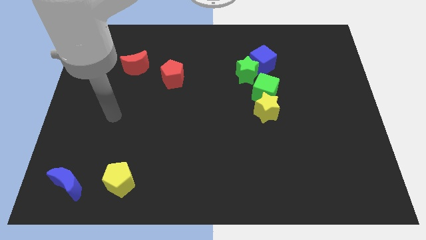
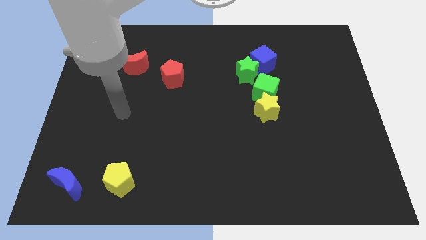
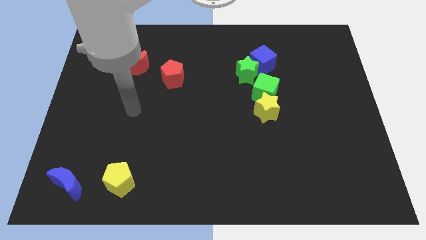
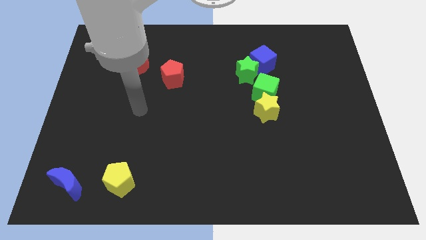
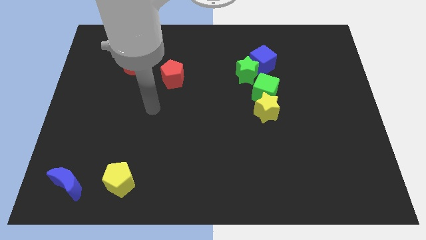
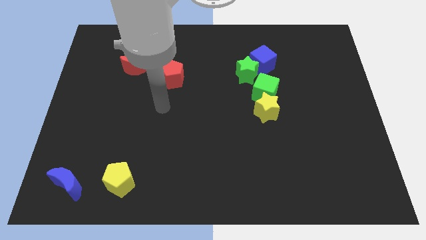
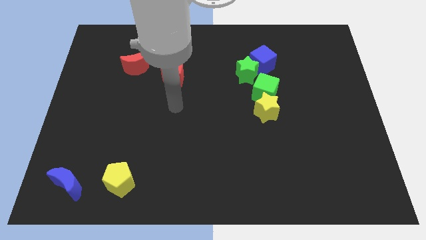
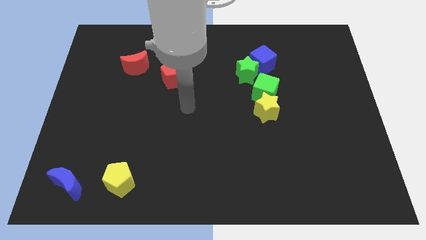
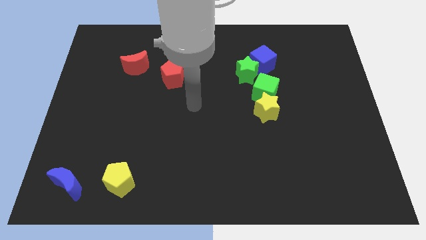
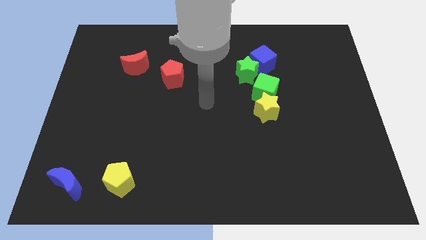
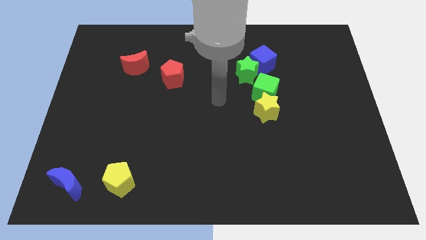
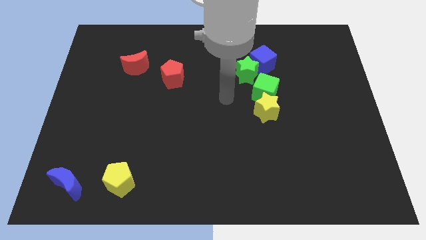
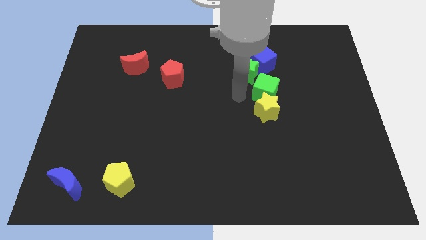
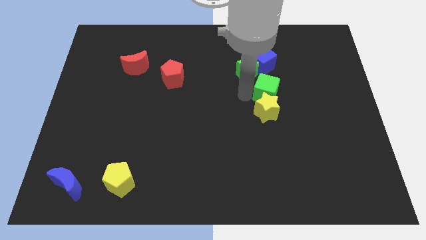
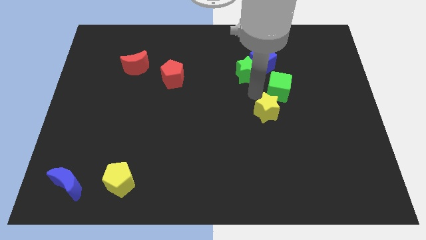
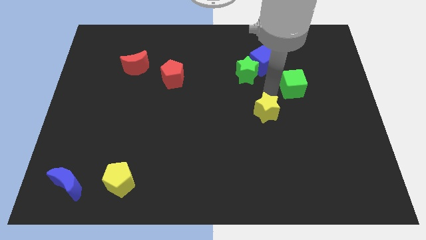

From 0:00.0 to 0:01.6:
separate the yellow star from the green cube

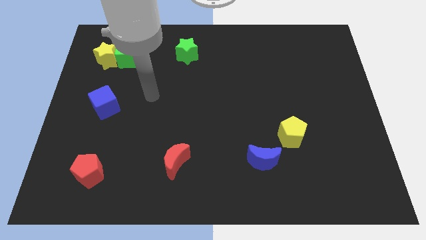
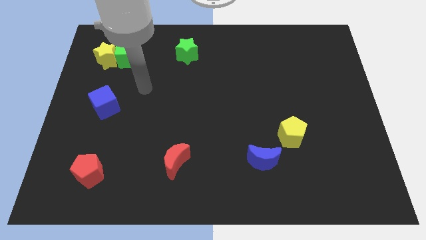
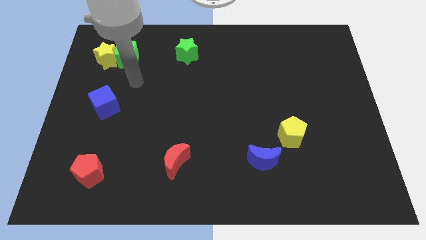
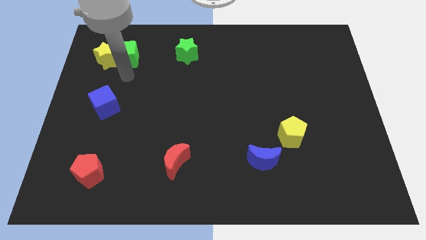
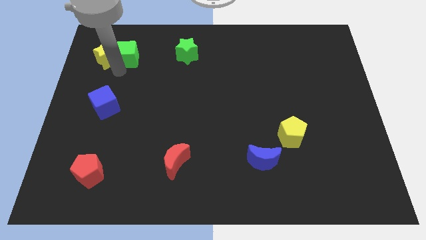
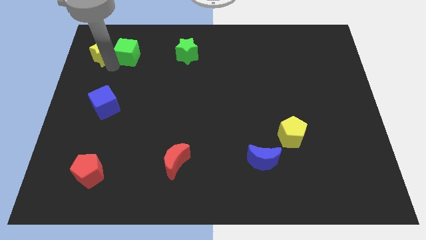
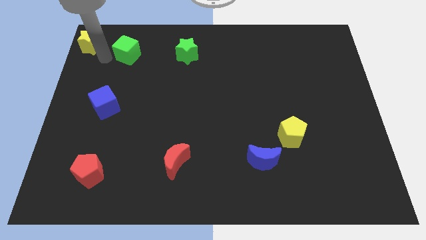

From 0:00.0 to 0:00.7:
pull the green cube apart from the yellow star

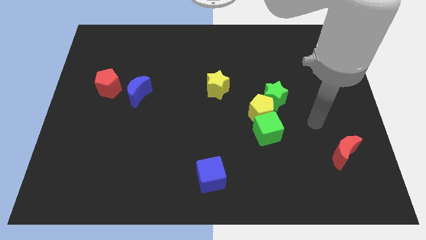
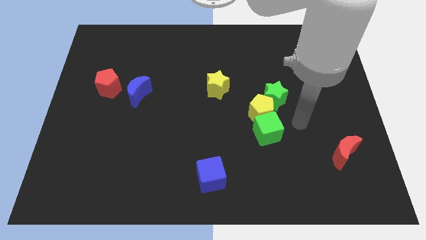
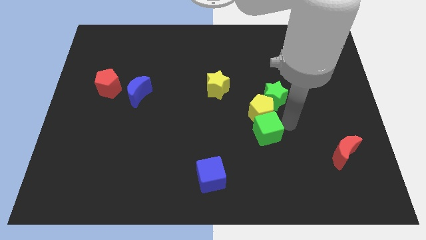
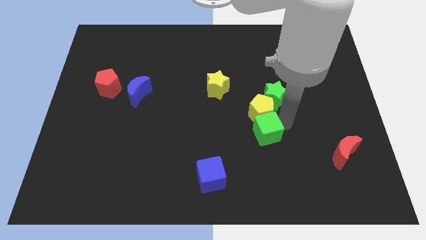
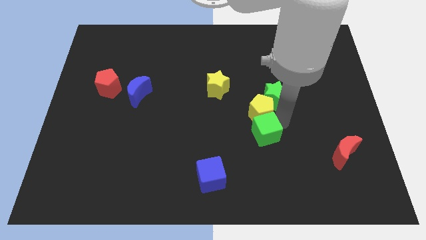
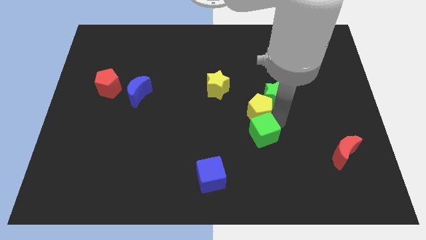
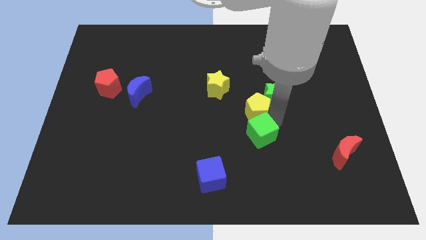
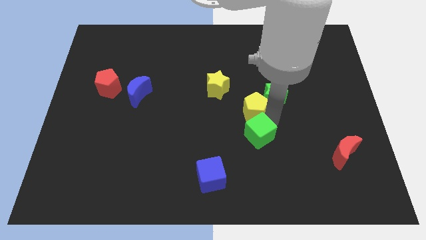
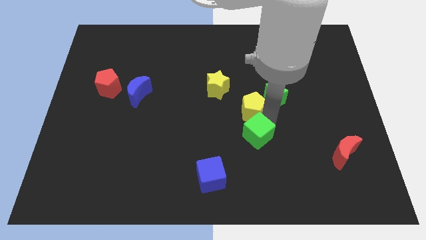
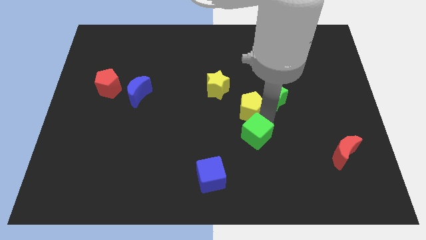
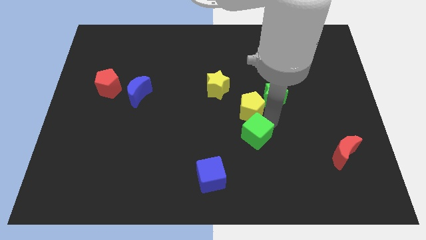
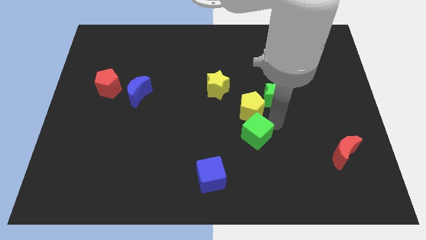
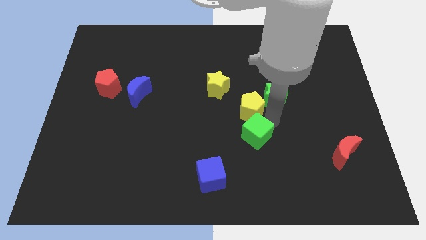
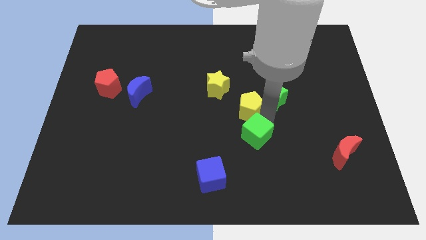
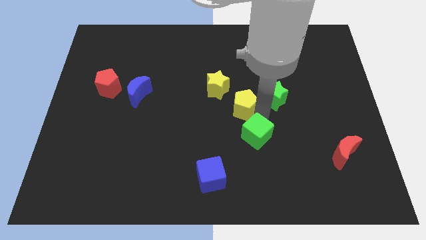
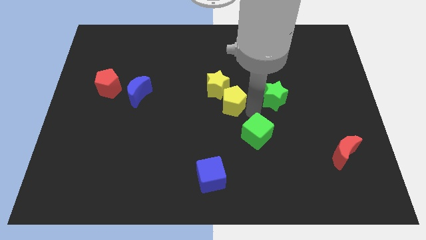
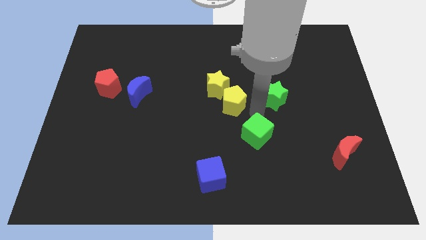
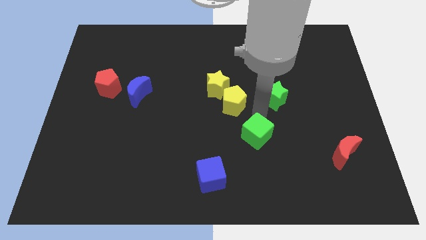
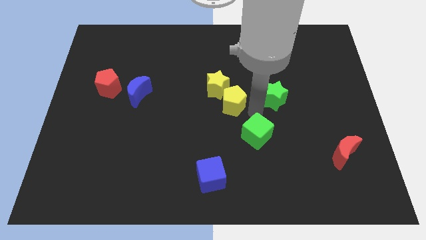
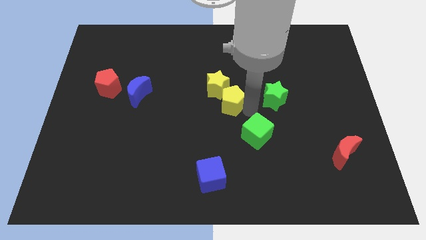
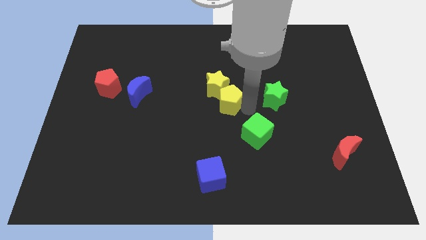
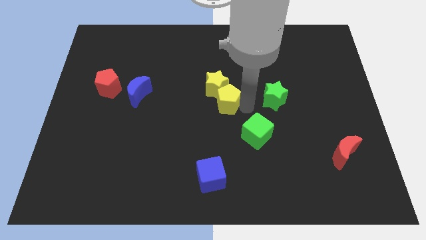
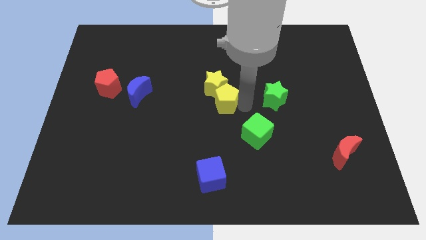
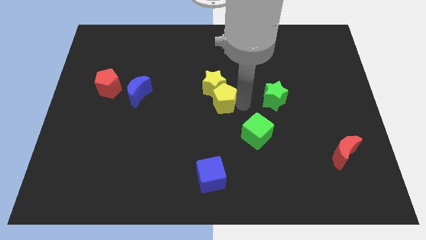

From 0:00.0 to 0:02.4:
move the yellow pentagon away from the green star and green cube

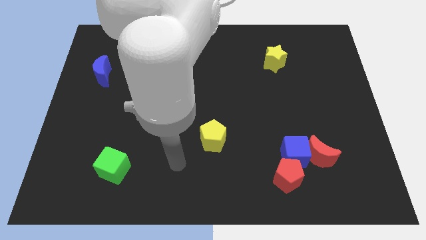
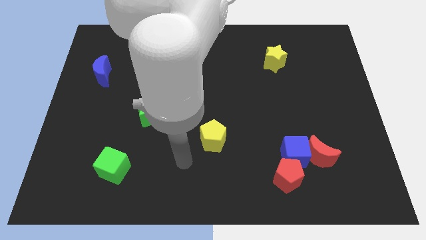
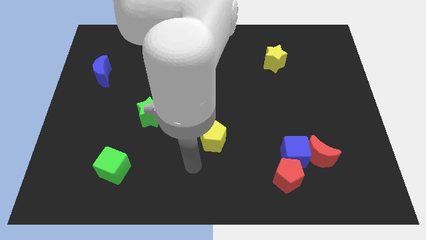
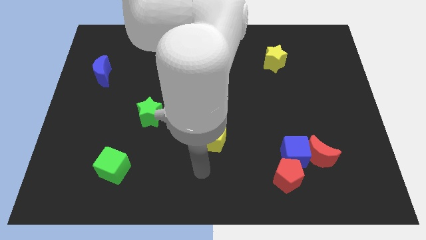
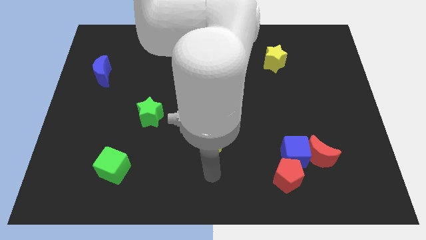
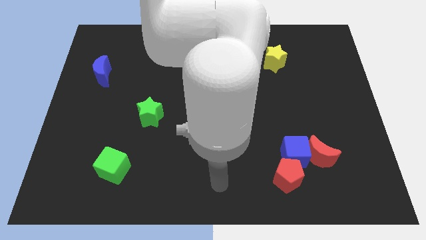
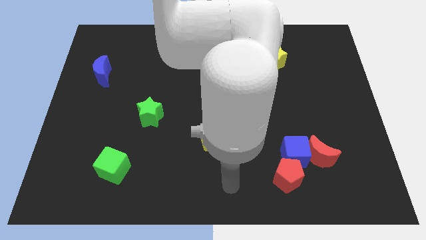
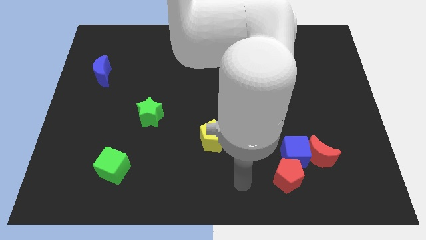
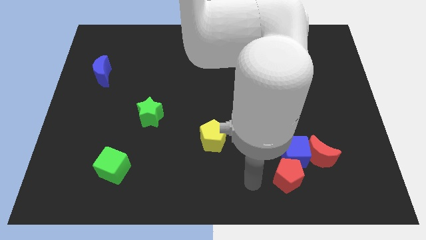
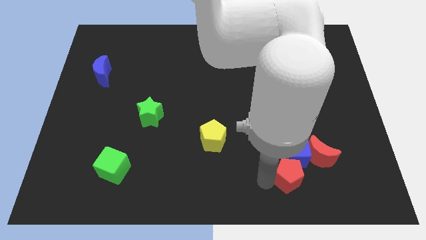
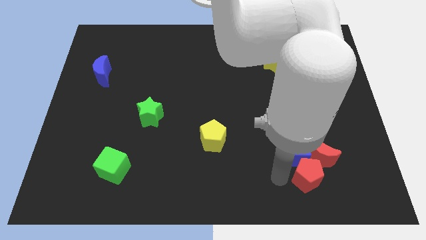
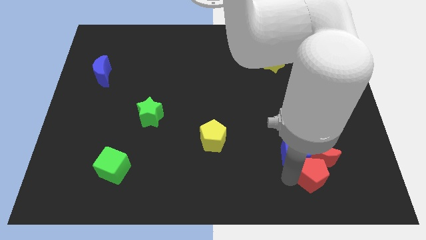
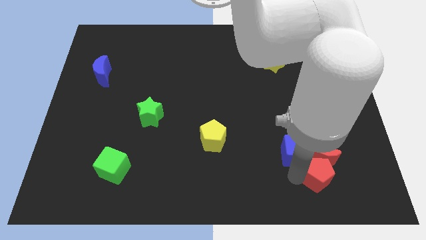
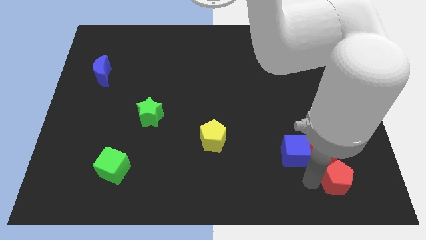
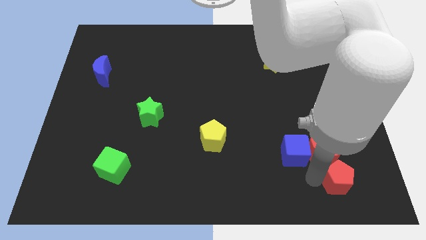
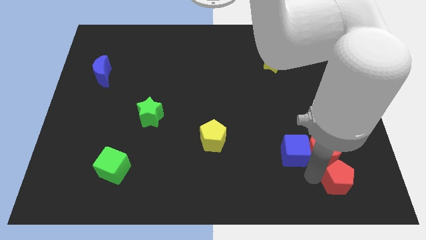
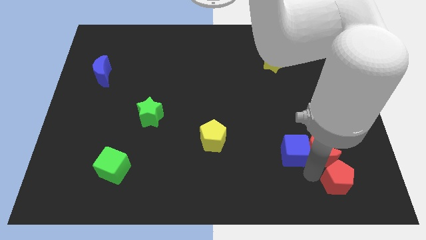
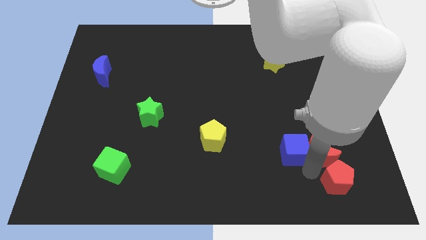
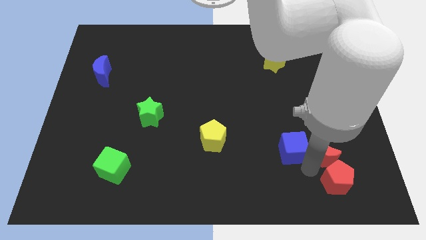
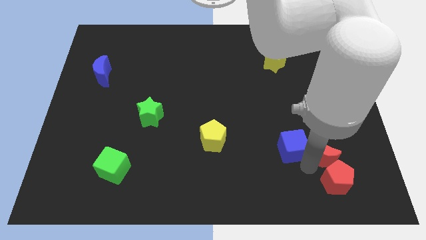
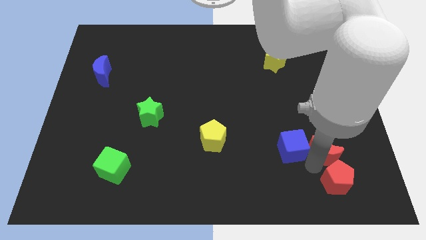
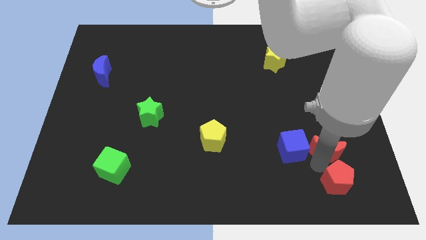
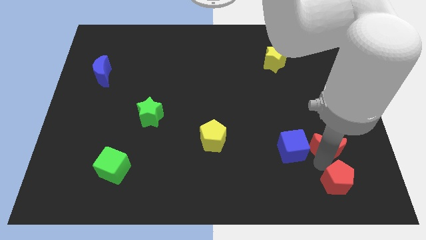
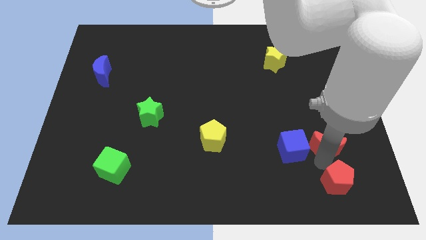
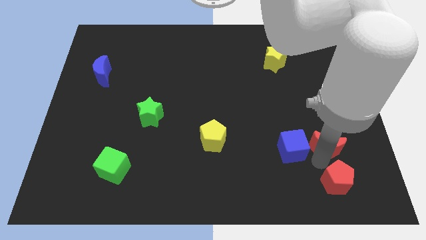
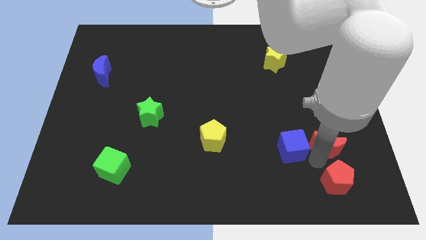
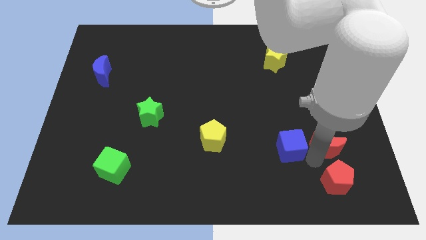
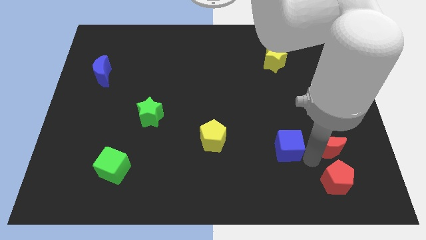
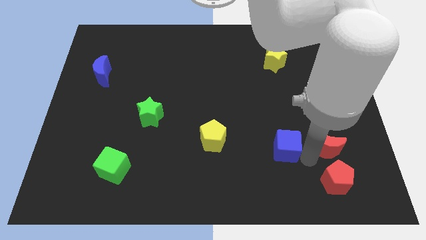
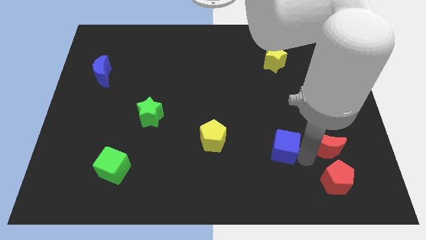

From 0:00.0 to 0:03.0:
separate the blue cube from the red moon and red pentagon

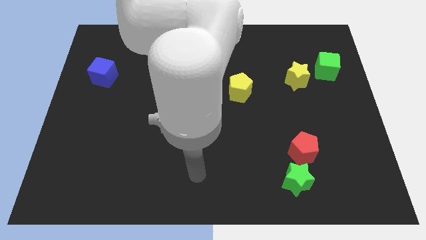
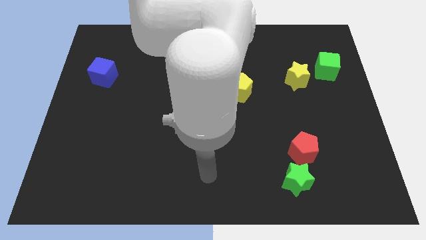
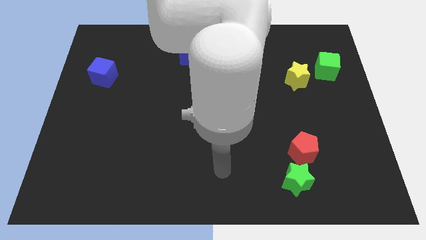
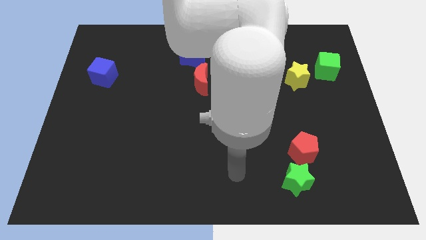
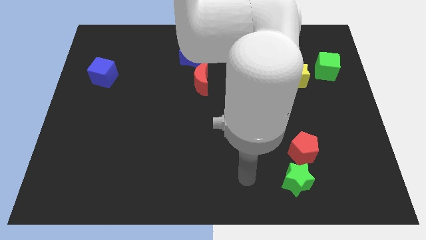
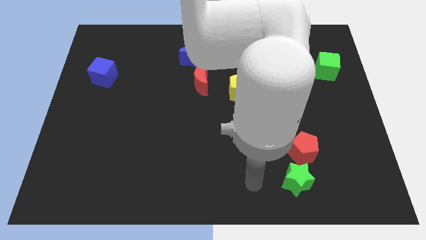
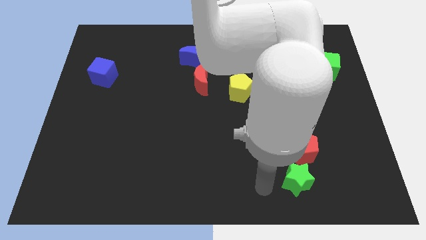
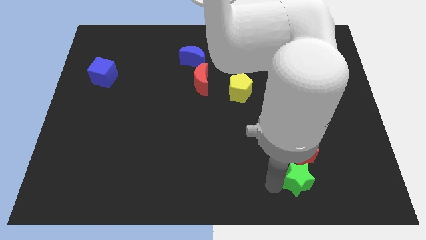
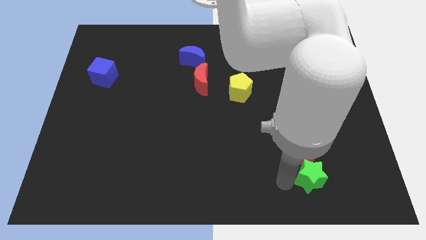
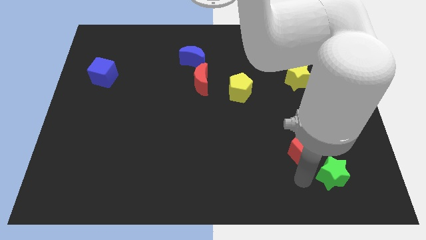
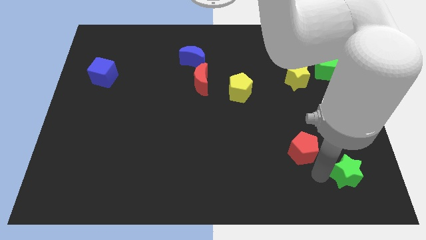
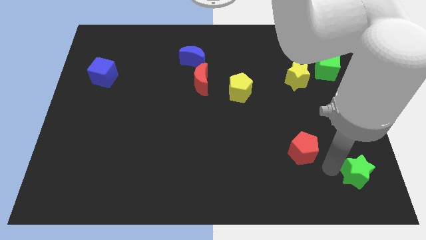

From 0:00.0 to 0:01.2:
separate the red pentagon from the green star

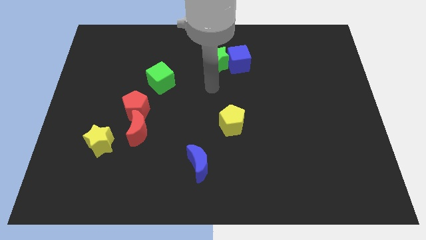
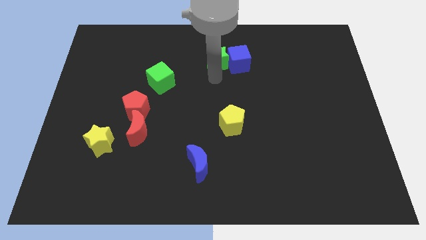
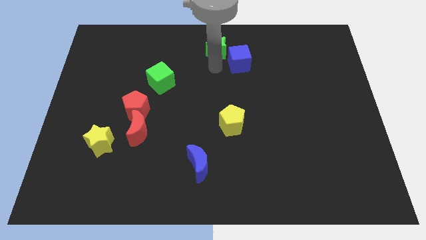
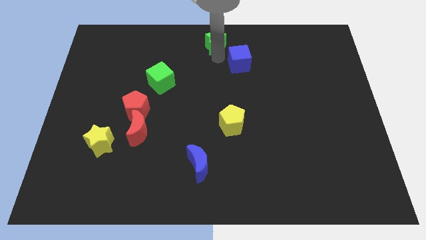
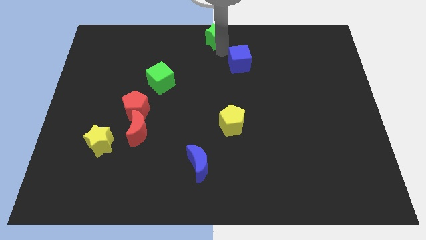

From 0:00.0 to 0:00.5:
move the blue cube away from the green star
